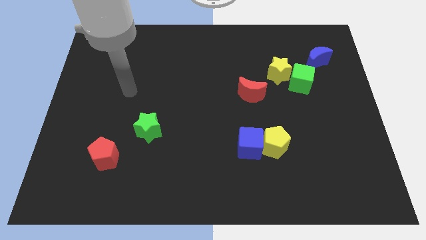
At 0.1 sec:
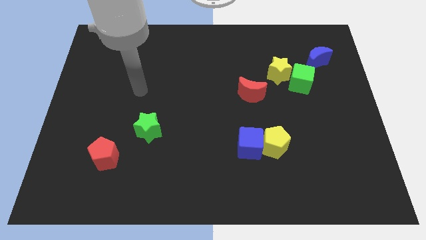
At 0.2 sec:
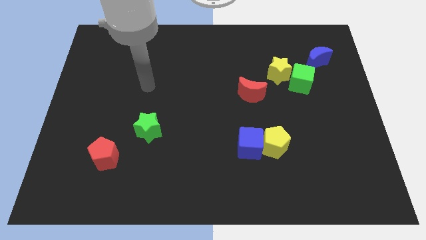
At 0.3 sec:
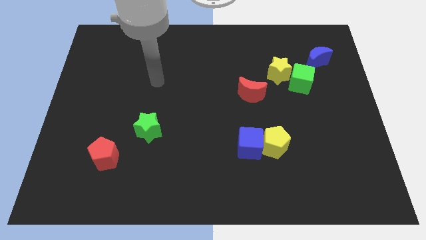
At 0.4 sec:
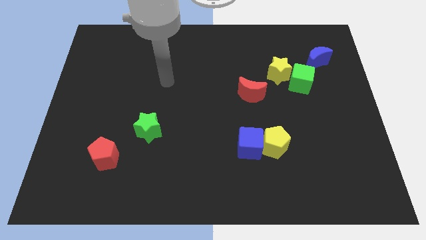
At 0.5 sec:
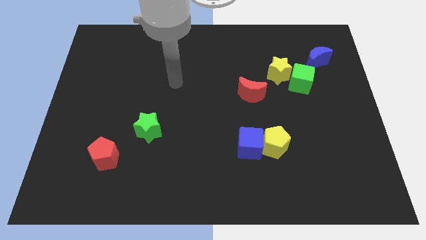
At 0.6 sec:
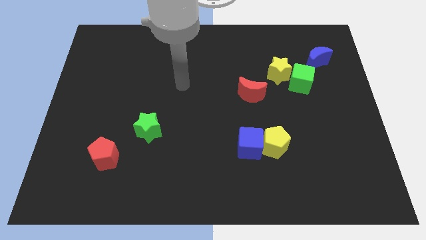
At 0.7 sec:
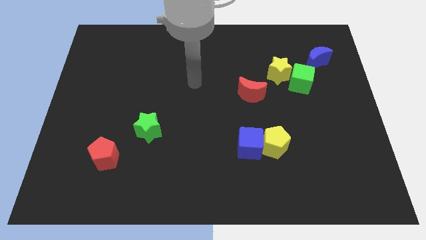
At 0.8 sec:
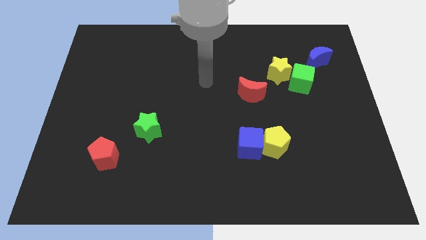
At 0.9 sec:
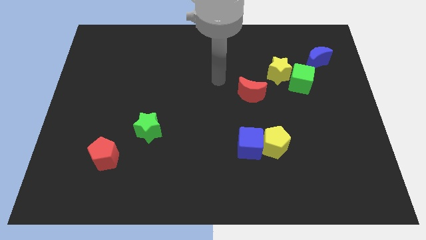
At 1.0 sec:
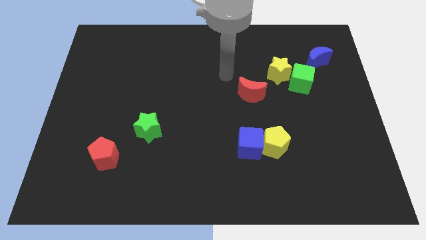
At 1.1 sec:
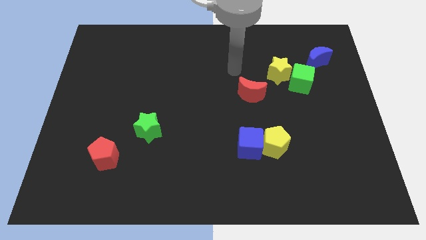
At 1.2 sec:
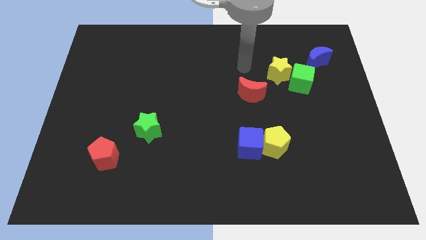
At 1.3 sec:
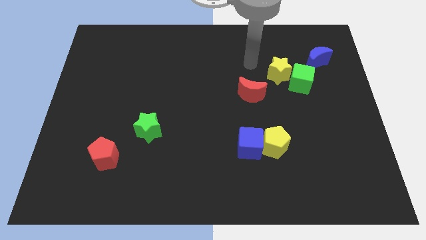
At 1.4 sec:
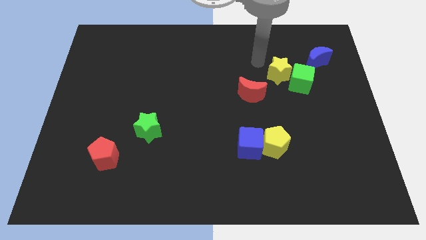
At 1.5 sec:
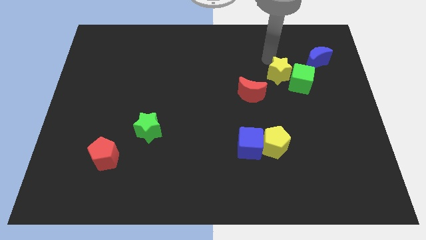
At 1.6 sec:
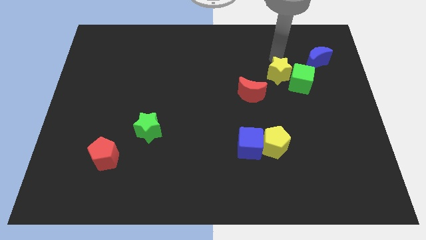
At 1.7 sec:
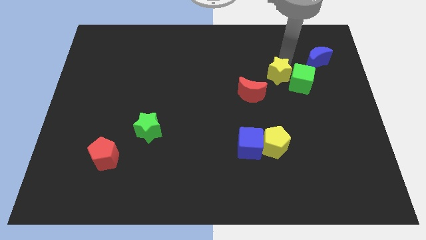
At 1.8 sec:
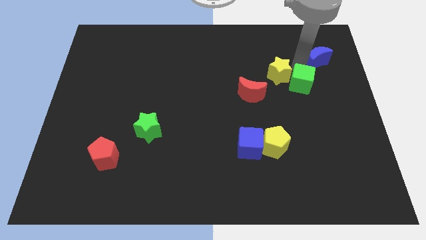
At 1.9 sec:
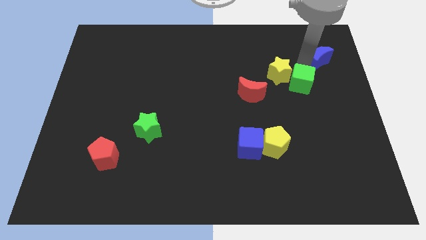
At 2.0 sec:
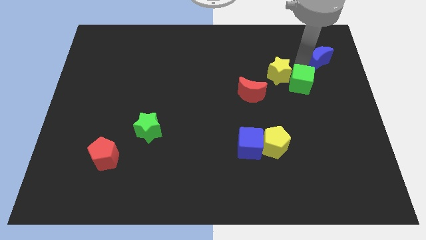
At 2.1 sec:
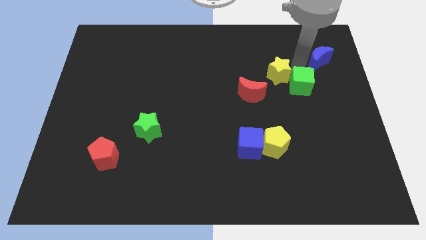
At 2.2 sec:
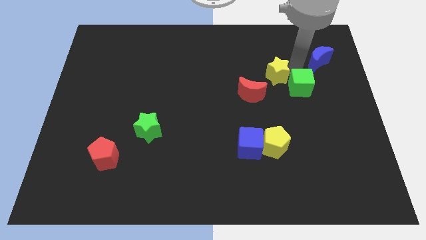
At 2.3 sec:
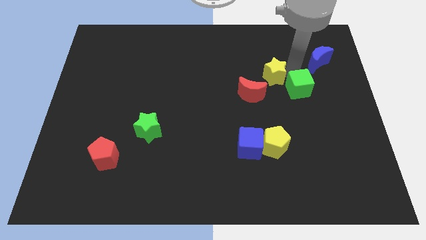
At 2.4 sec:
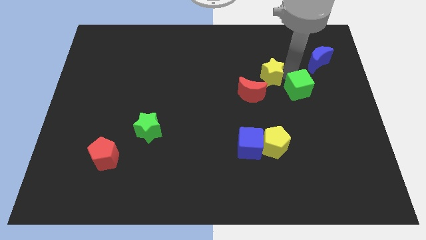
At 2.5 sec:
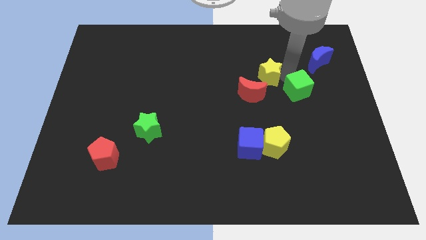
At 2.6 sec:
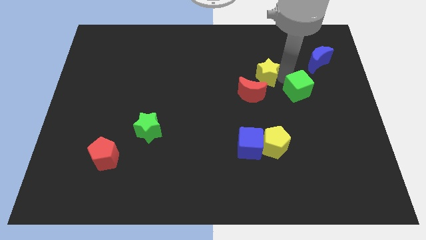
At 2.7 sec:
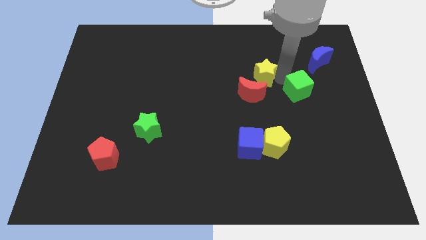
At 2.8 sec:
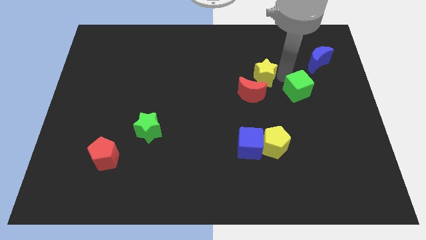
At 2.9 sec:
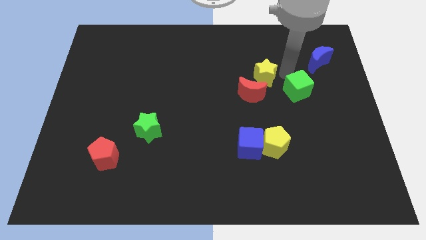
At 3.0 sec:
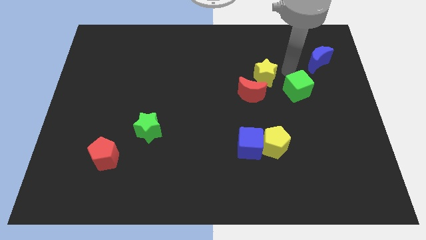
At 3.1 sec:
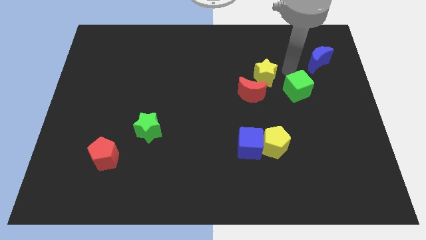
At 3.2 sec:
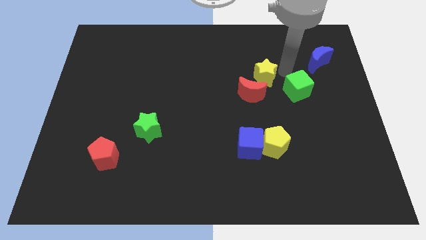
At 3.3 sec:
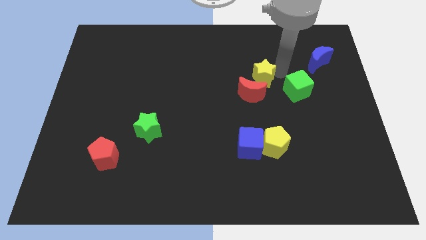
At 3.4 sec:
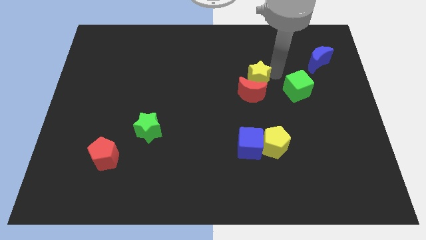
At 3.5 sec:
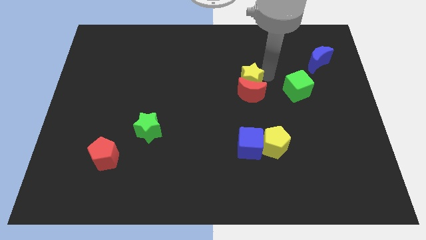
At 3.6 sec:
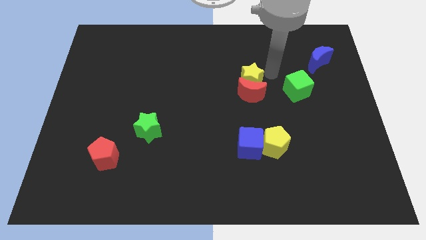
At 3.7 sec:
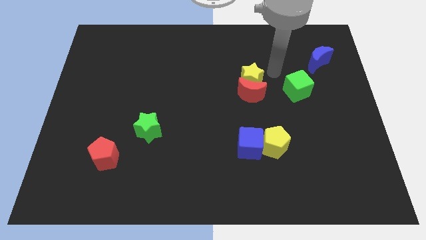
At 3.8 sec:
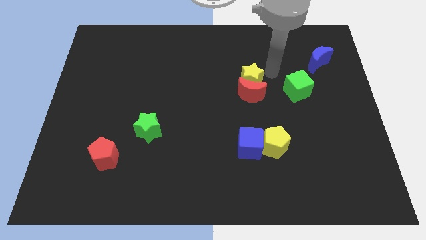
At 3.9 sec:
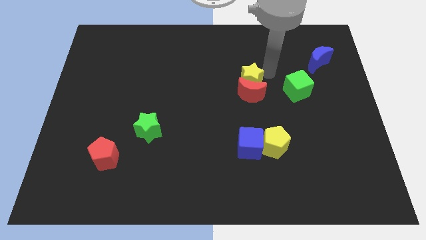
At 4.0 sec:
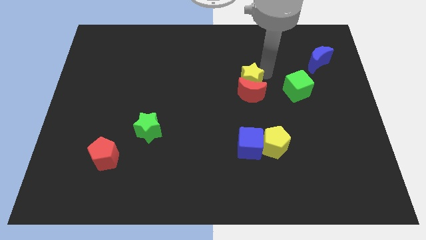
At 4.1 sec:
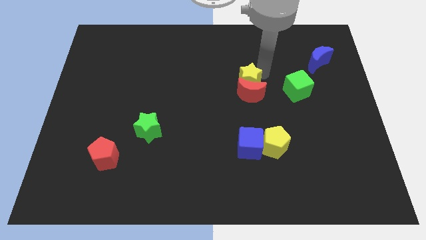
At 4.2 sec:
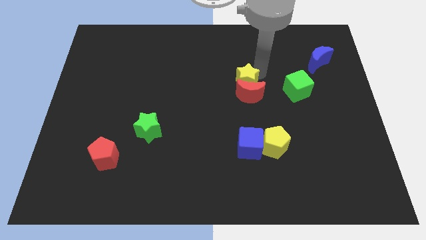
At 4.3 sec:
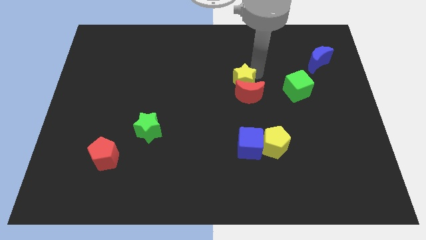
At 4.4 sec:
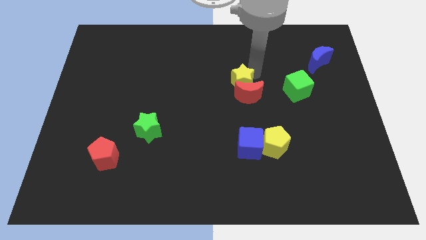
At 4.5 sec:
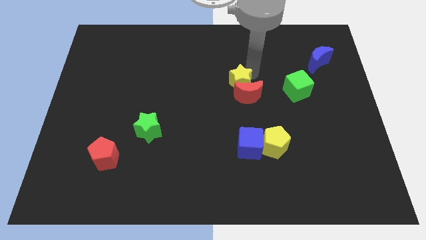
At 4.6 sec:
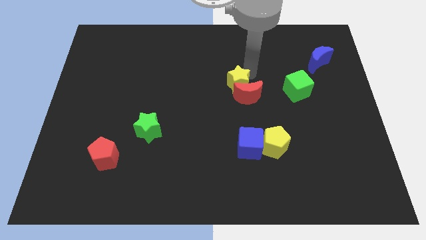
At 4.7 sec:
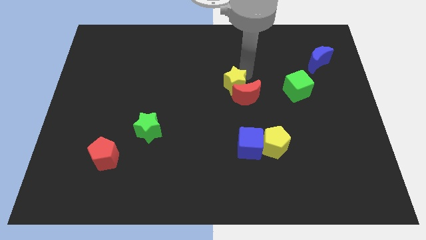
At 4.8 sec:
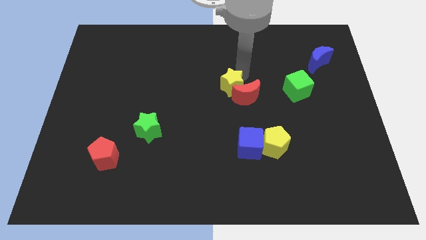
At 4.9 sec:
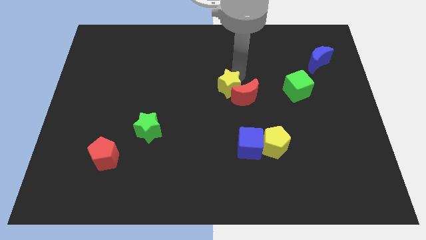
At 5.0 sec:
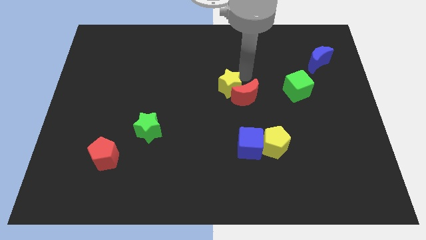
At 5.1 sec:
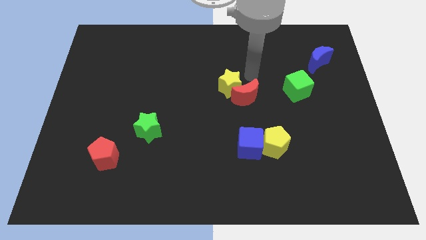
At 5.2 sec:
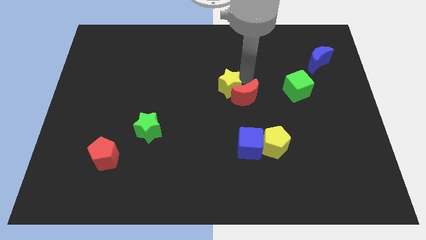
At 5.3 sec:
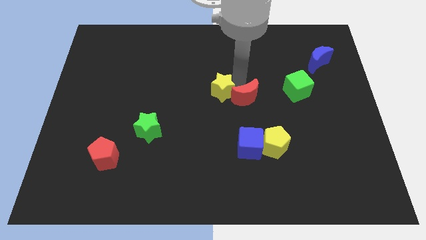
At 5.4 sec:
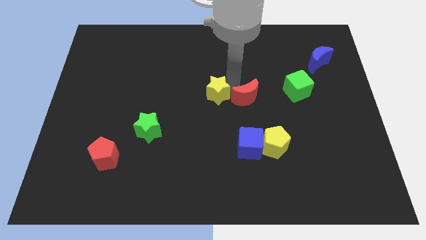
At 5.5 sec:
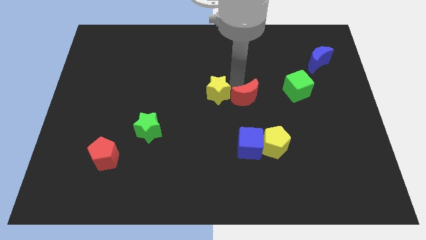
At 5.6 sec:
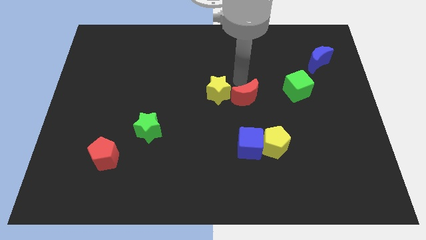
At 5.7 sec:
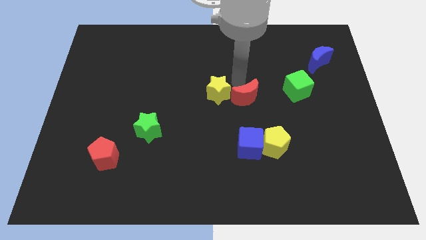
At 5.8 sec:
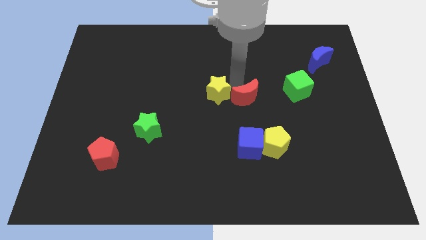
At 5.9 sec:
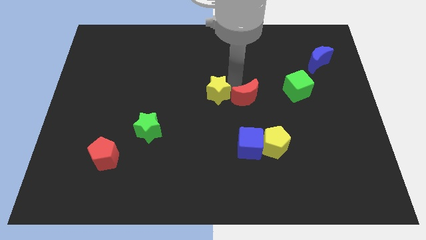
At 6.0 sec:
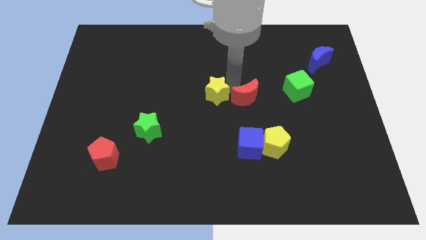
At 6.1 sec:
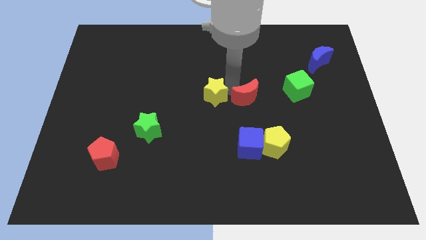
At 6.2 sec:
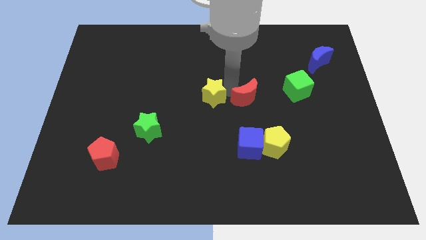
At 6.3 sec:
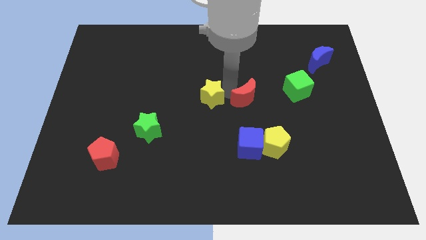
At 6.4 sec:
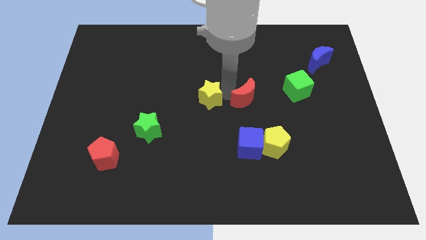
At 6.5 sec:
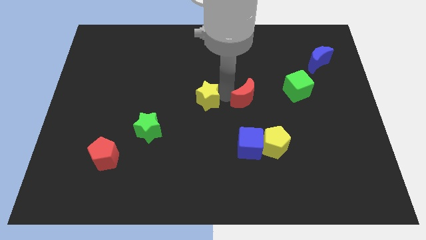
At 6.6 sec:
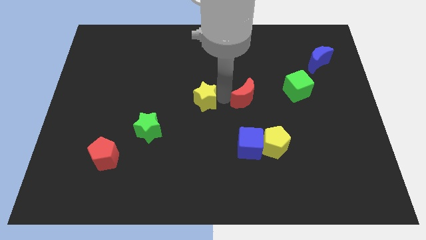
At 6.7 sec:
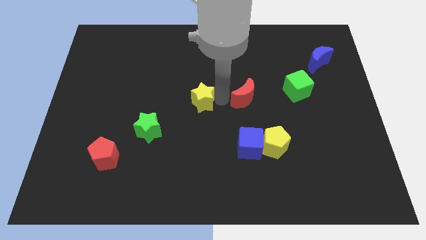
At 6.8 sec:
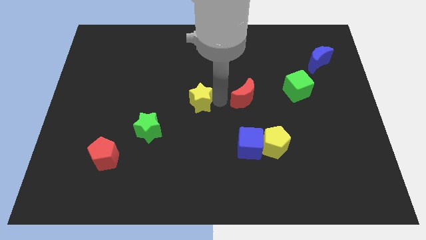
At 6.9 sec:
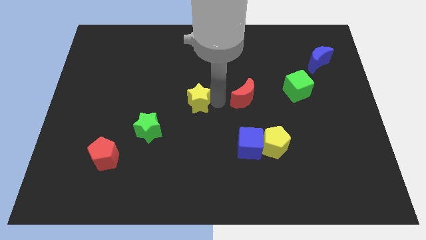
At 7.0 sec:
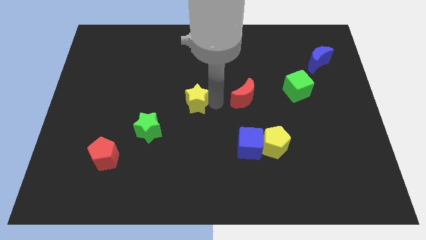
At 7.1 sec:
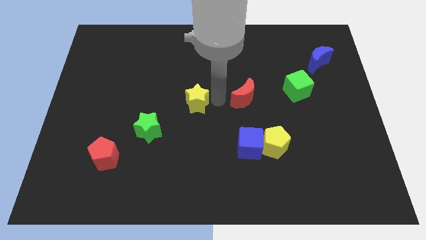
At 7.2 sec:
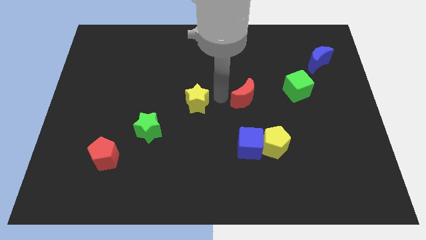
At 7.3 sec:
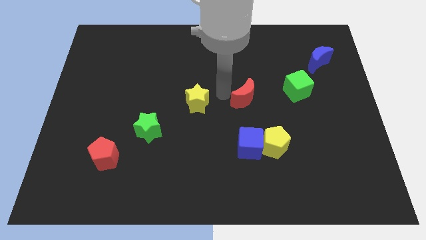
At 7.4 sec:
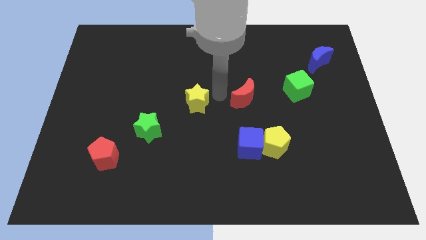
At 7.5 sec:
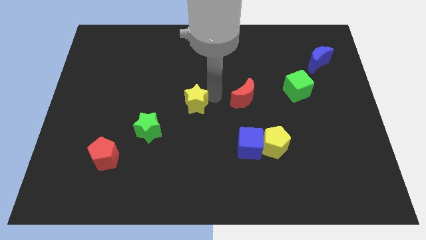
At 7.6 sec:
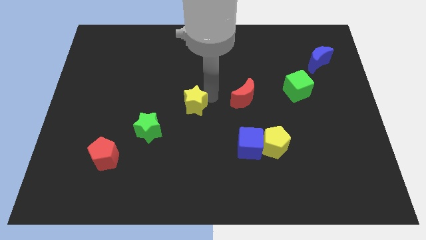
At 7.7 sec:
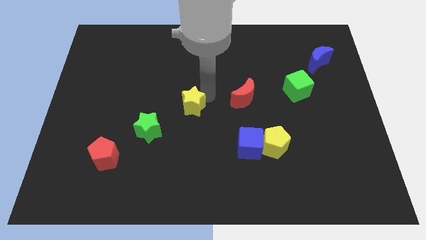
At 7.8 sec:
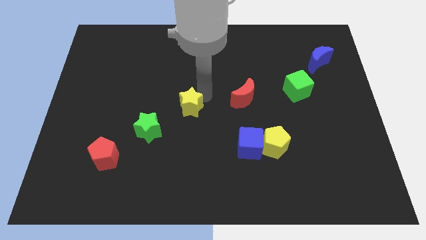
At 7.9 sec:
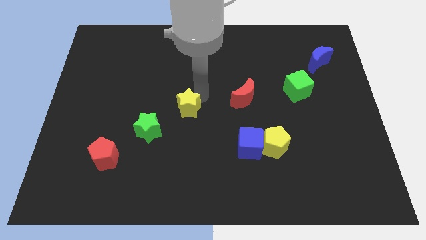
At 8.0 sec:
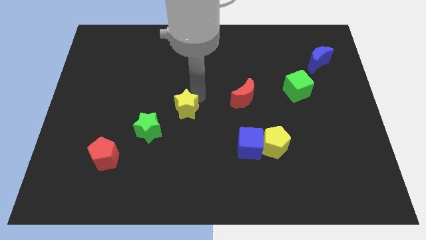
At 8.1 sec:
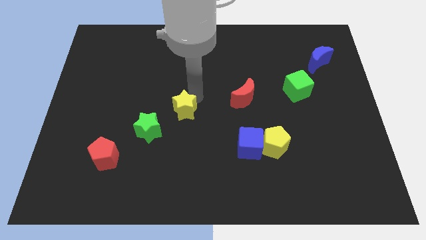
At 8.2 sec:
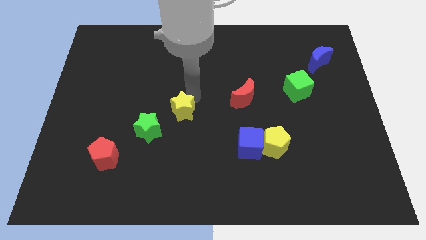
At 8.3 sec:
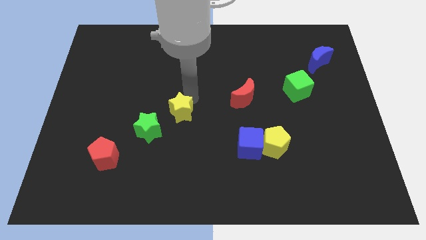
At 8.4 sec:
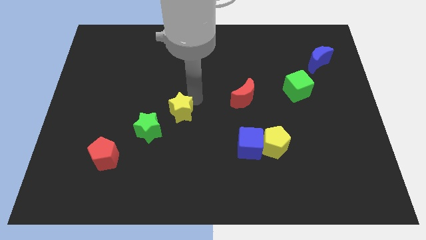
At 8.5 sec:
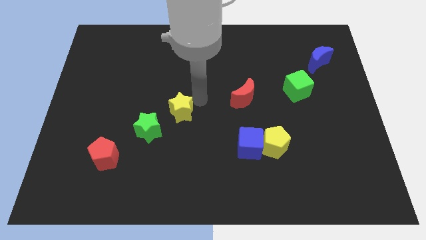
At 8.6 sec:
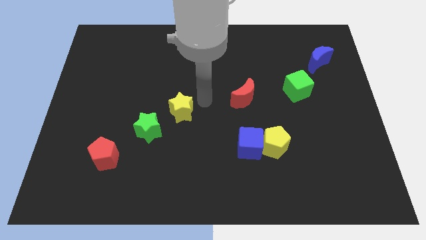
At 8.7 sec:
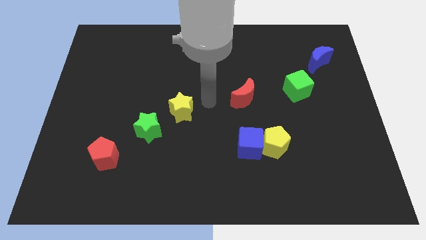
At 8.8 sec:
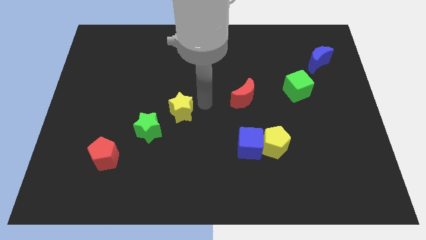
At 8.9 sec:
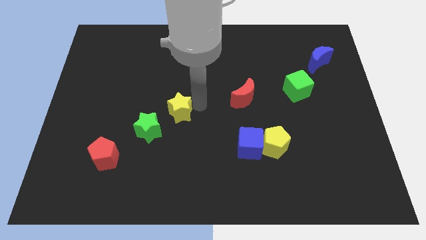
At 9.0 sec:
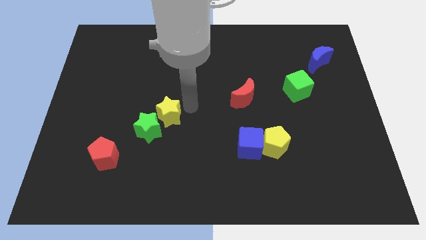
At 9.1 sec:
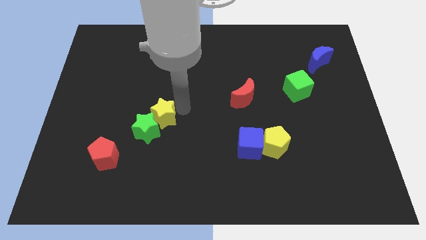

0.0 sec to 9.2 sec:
slide the yellow star next to the green star
